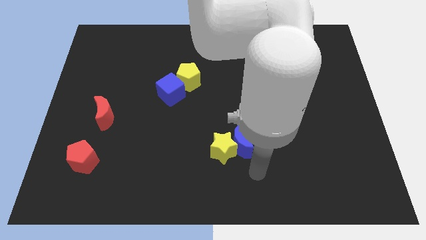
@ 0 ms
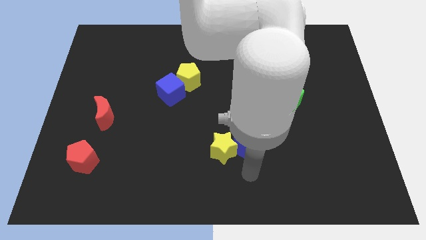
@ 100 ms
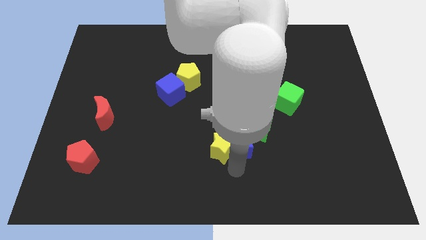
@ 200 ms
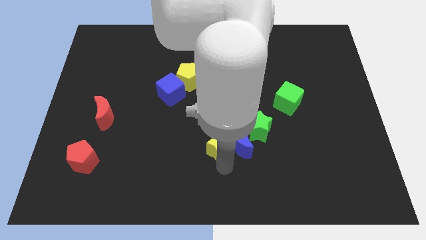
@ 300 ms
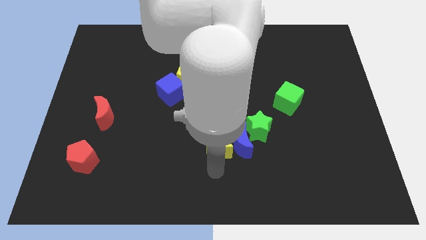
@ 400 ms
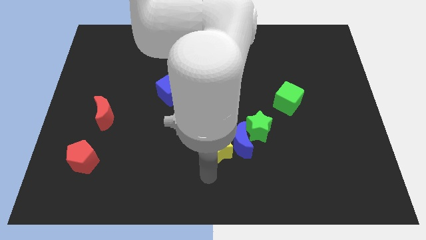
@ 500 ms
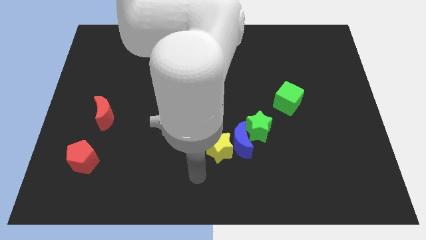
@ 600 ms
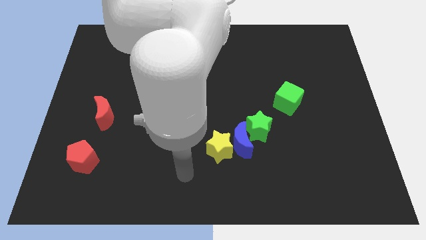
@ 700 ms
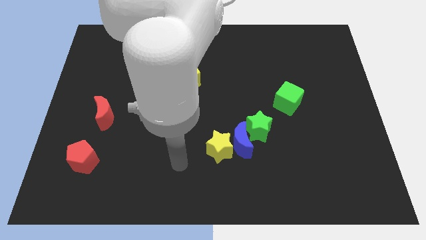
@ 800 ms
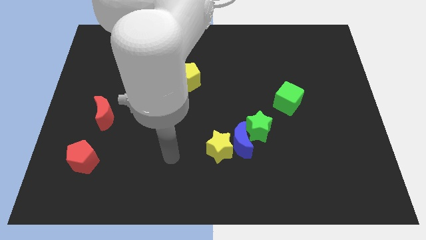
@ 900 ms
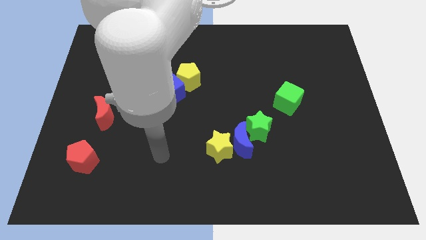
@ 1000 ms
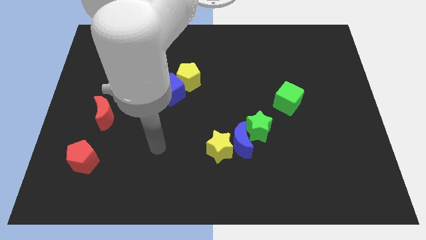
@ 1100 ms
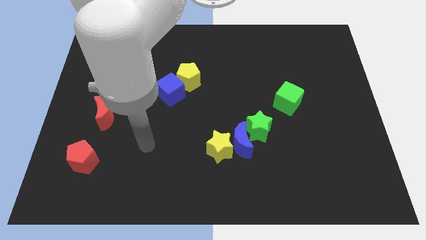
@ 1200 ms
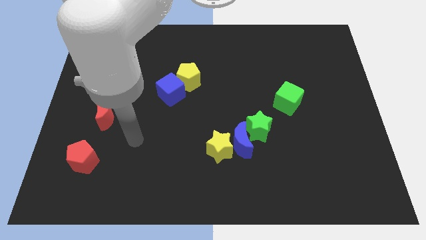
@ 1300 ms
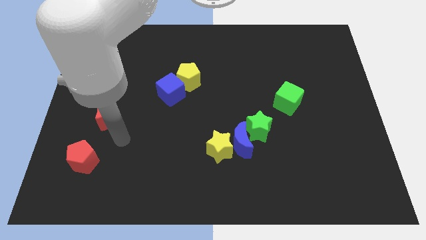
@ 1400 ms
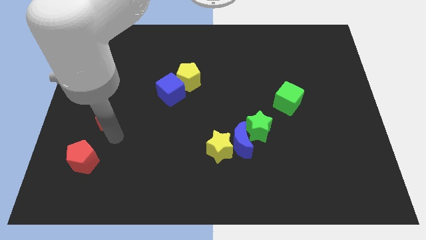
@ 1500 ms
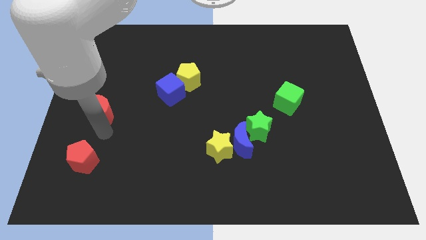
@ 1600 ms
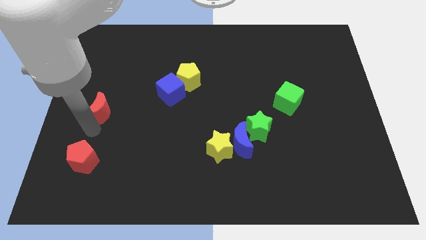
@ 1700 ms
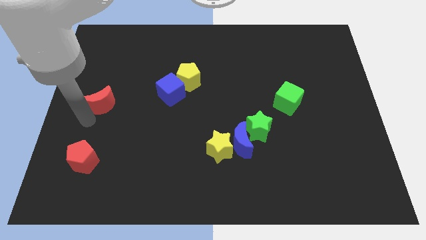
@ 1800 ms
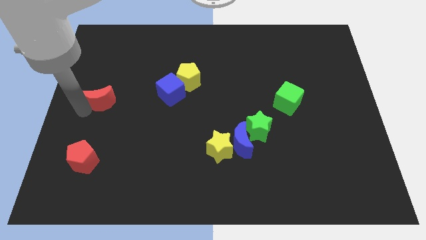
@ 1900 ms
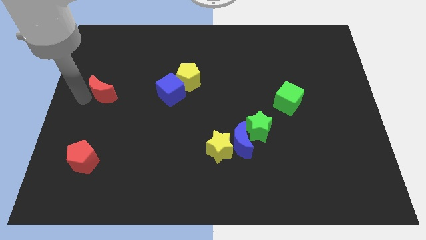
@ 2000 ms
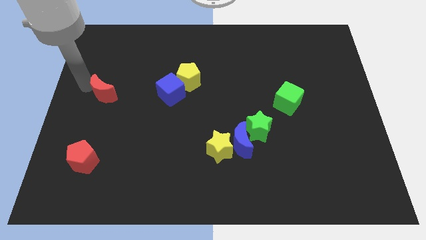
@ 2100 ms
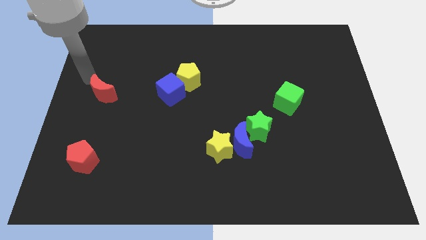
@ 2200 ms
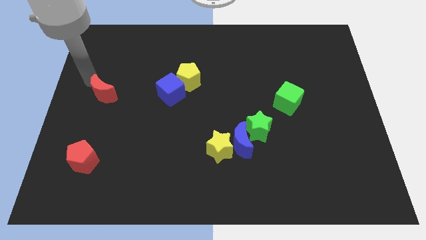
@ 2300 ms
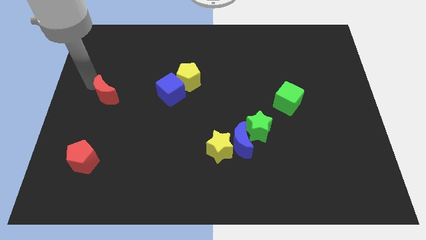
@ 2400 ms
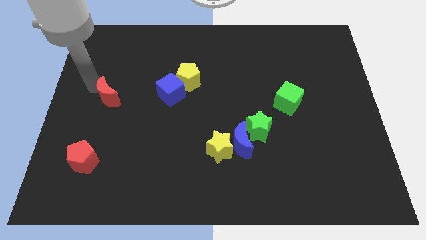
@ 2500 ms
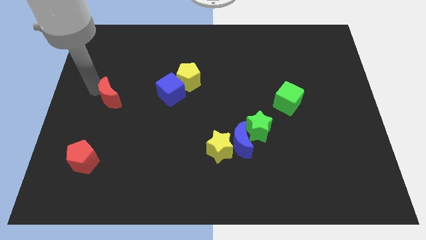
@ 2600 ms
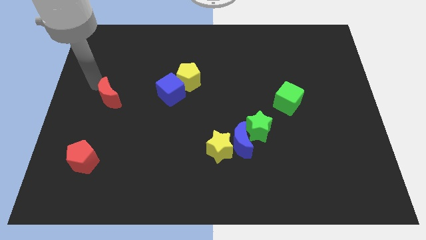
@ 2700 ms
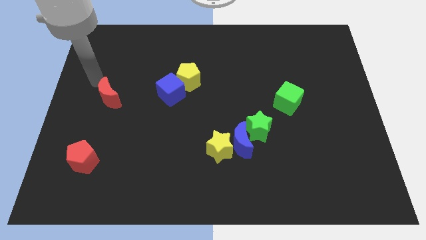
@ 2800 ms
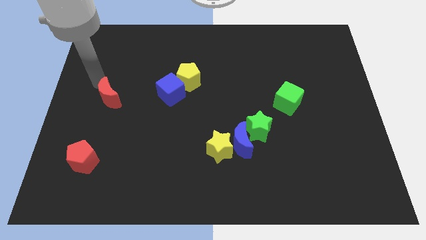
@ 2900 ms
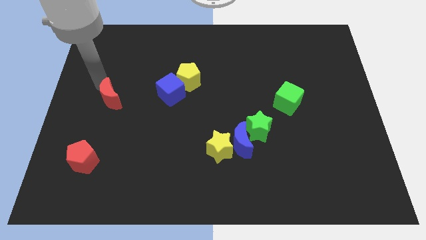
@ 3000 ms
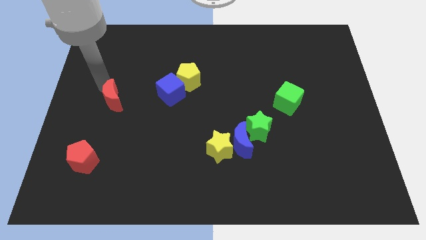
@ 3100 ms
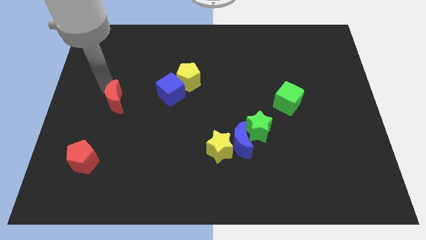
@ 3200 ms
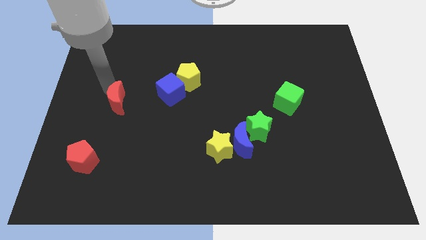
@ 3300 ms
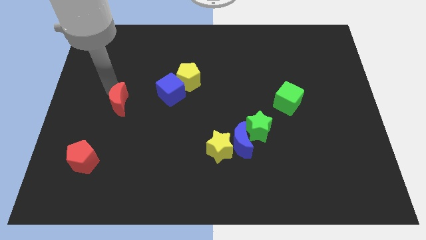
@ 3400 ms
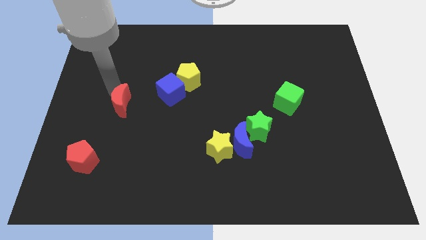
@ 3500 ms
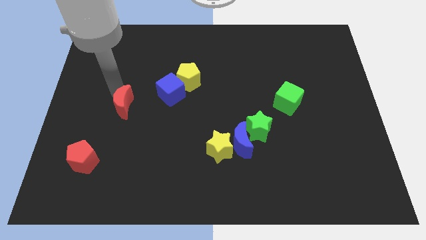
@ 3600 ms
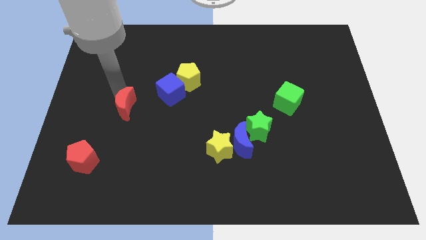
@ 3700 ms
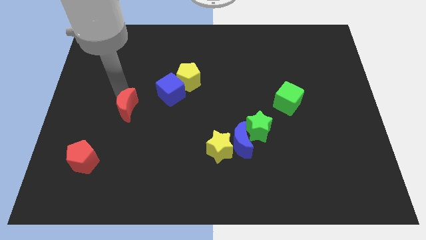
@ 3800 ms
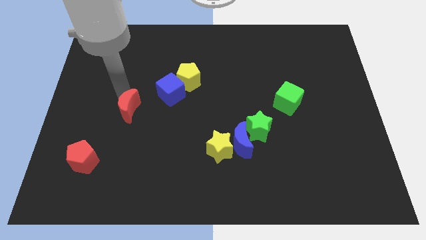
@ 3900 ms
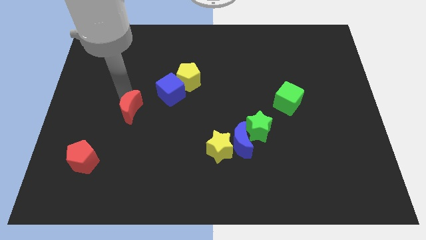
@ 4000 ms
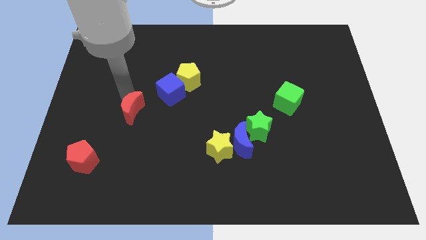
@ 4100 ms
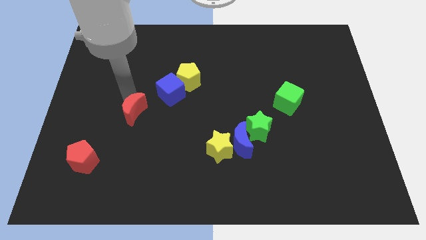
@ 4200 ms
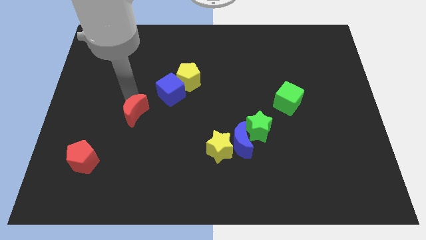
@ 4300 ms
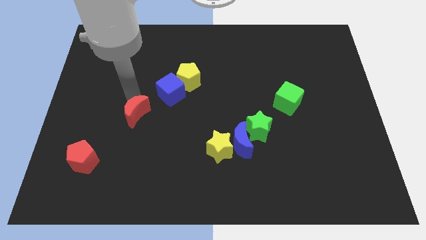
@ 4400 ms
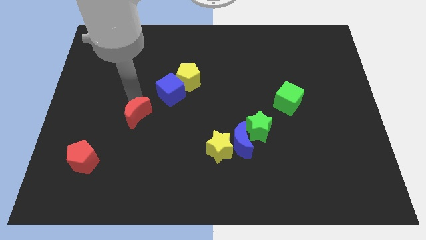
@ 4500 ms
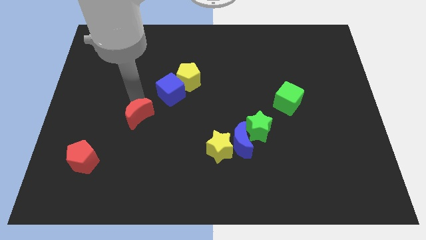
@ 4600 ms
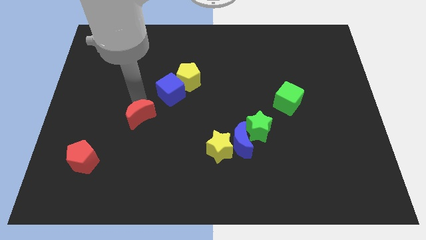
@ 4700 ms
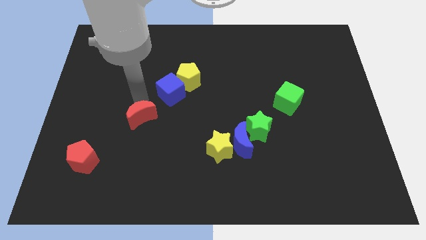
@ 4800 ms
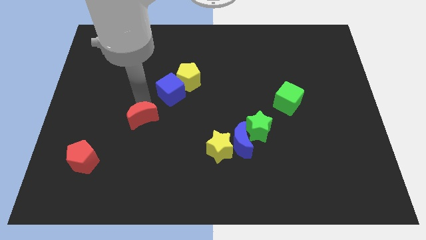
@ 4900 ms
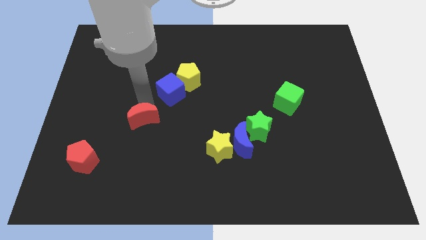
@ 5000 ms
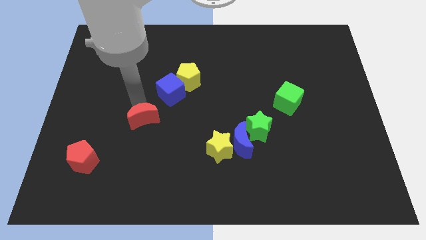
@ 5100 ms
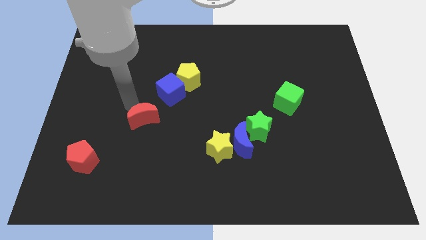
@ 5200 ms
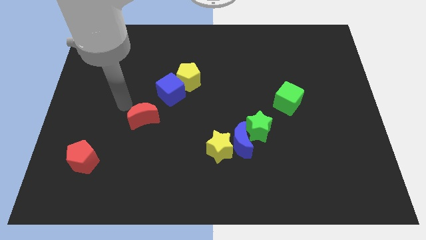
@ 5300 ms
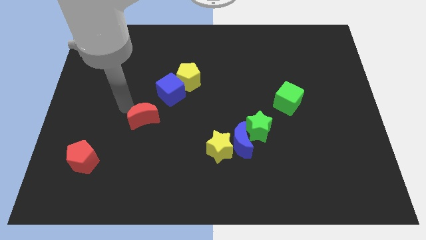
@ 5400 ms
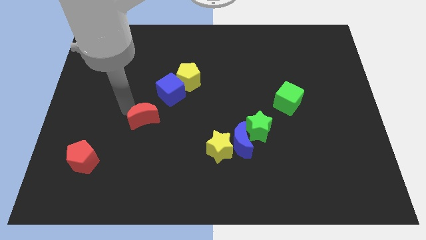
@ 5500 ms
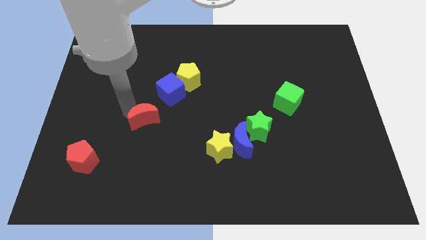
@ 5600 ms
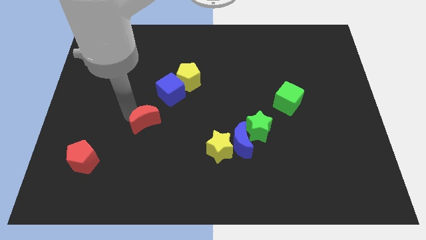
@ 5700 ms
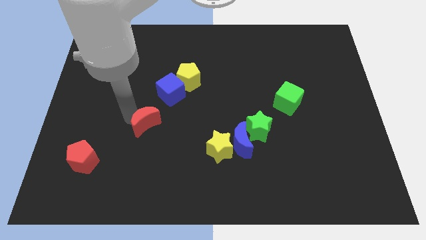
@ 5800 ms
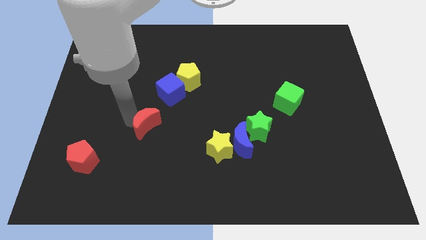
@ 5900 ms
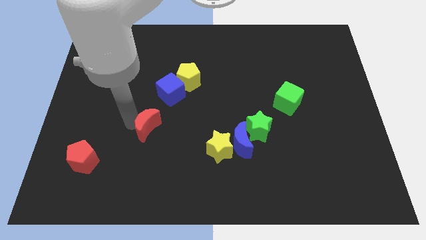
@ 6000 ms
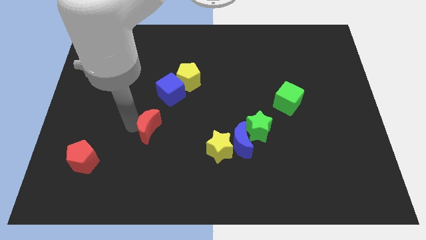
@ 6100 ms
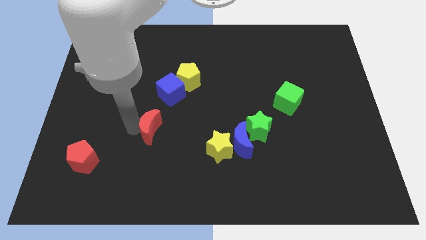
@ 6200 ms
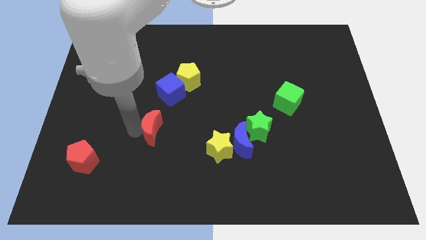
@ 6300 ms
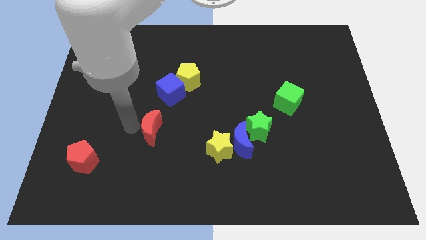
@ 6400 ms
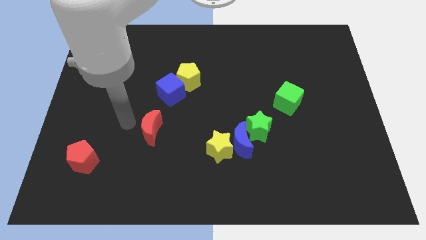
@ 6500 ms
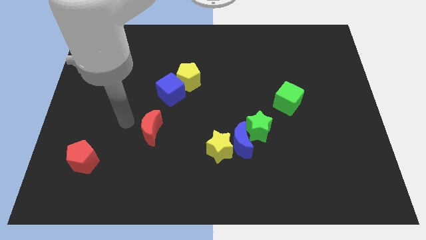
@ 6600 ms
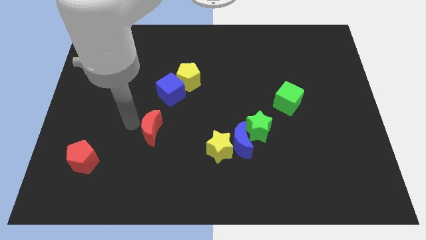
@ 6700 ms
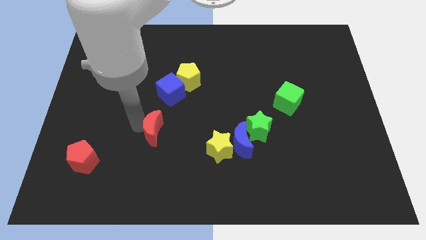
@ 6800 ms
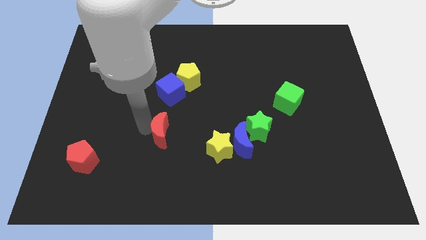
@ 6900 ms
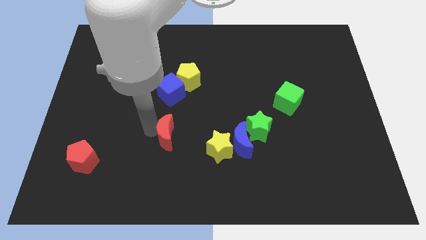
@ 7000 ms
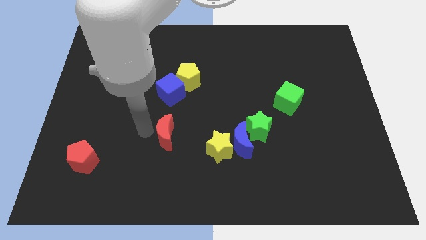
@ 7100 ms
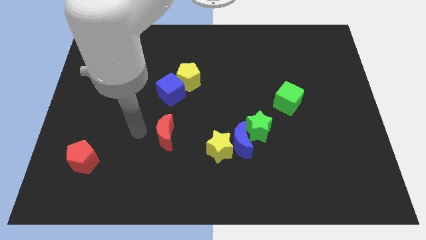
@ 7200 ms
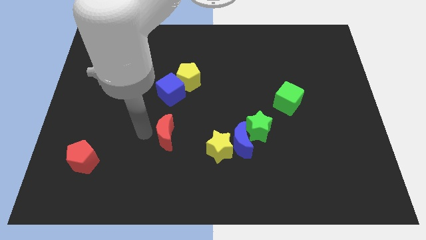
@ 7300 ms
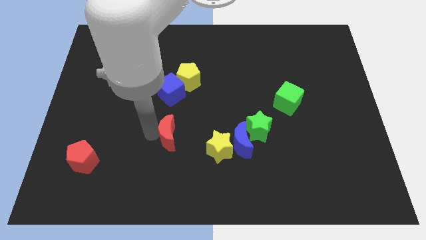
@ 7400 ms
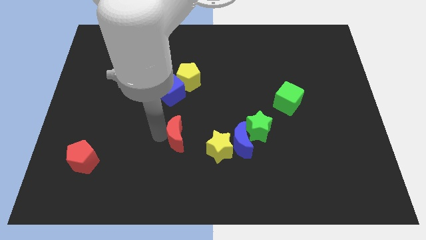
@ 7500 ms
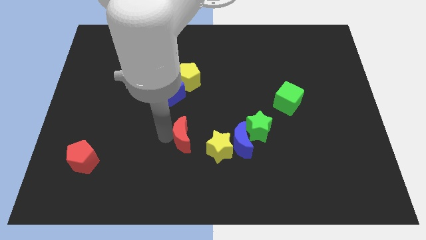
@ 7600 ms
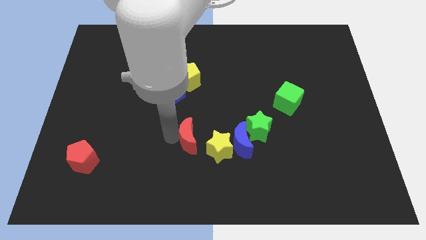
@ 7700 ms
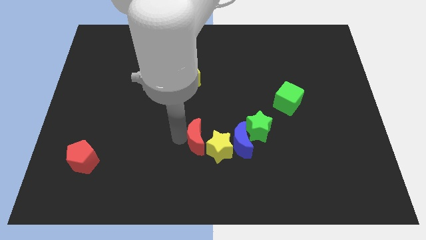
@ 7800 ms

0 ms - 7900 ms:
slide the red moon next to the yellow star
